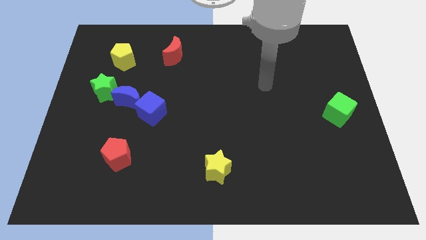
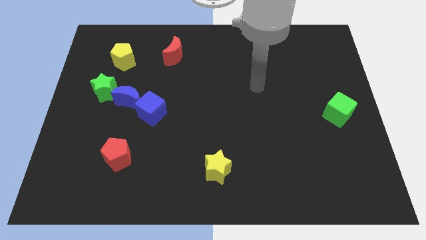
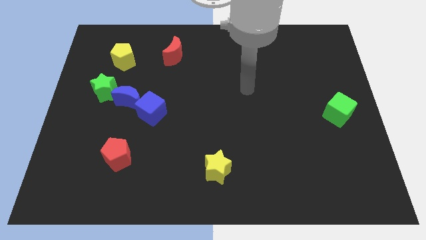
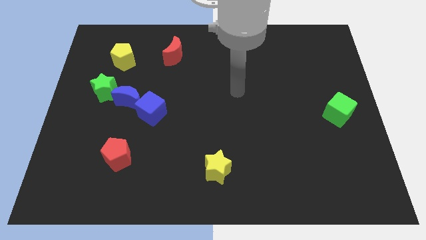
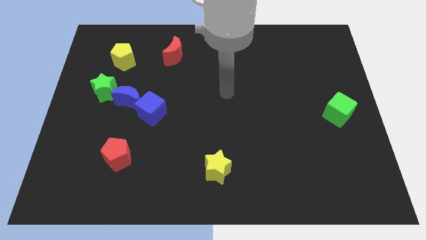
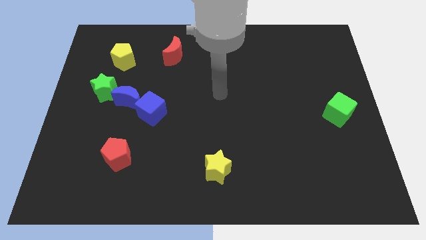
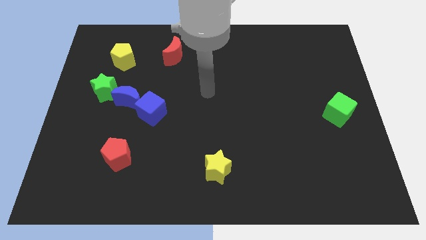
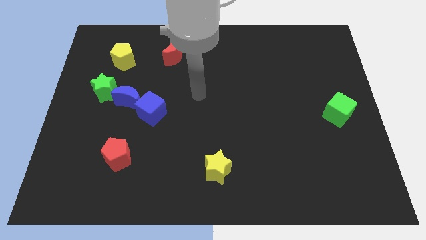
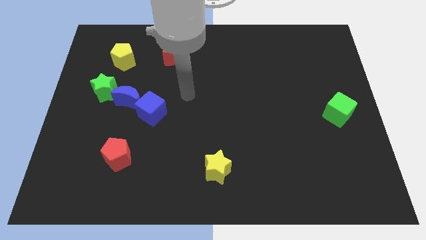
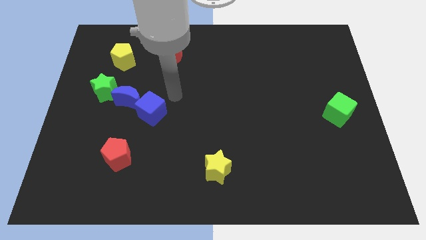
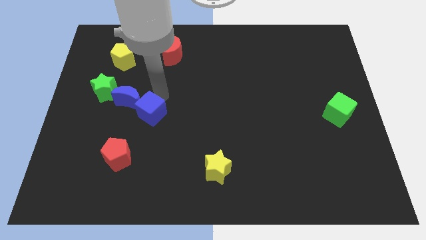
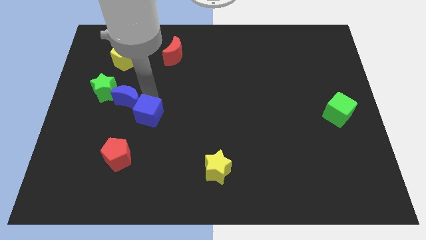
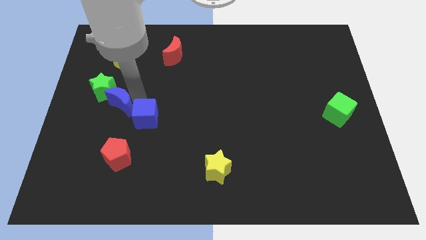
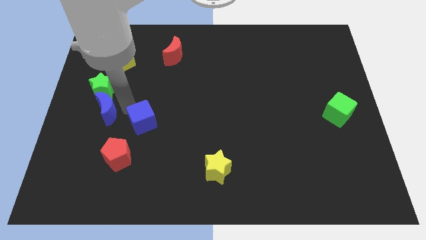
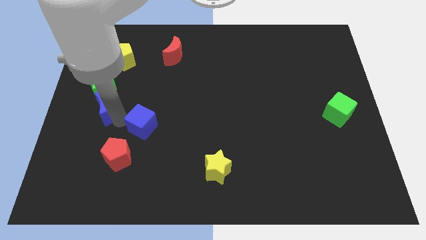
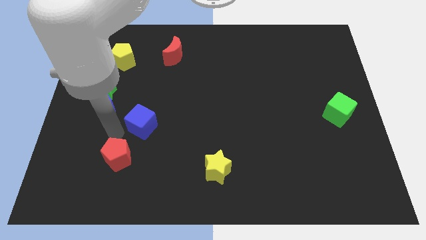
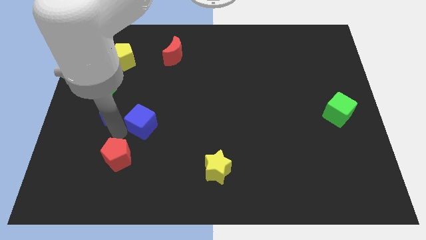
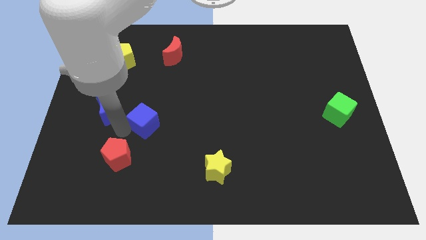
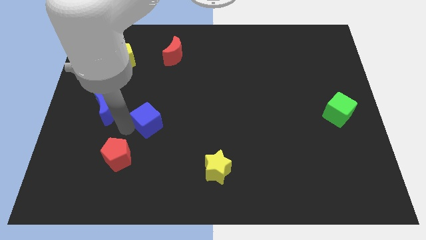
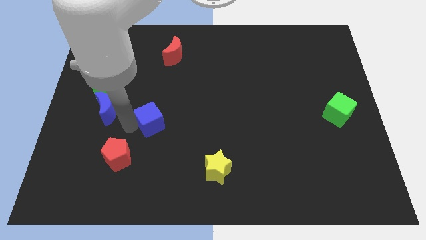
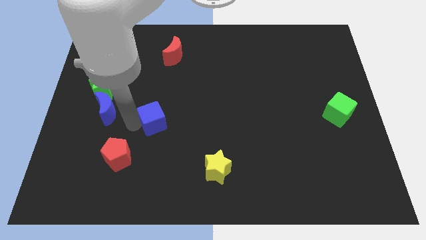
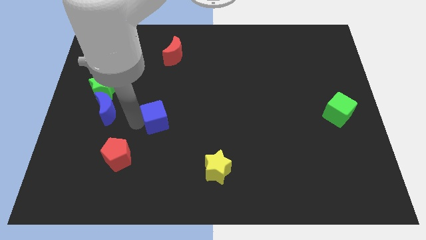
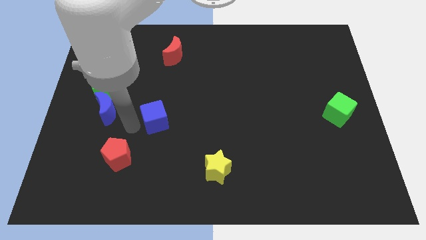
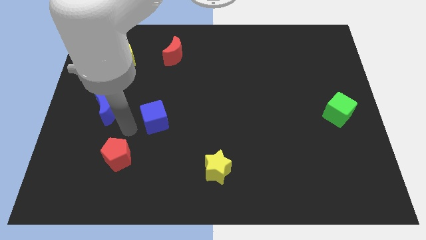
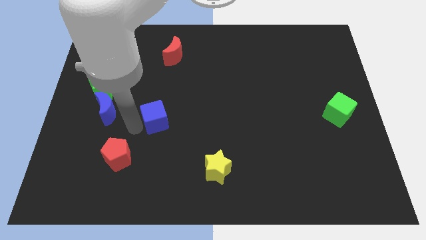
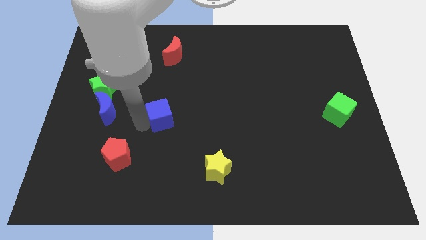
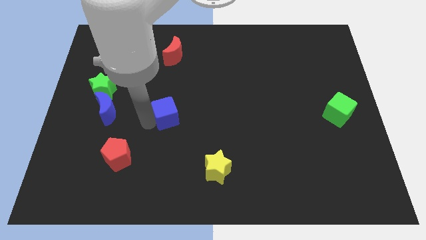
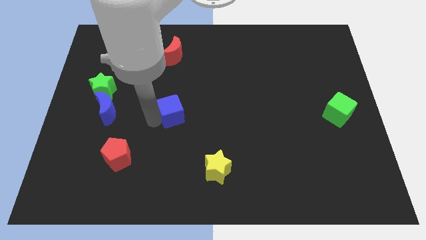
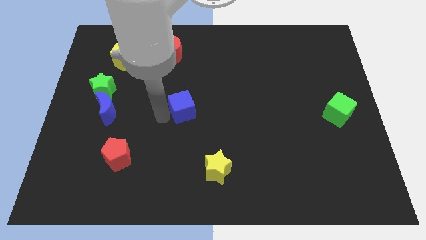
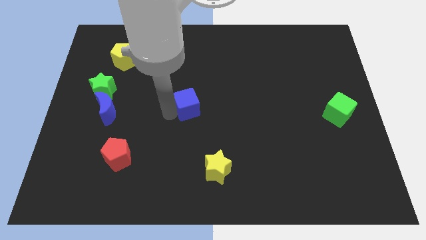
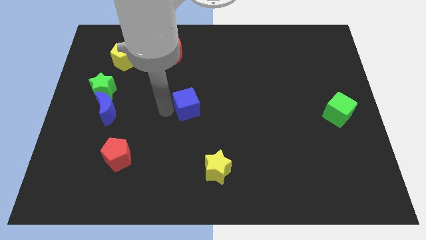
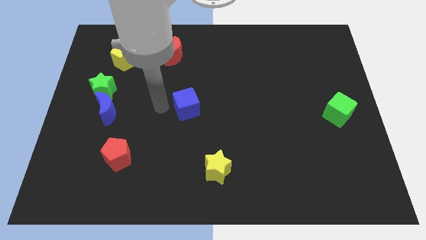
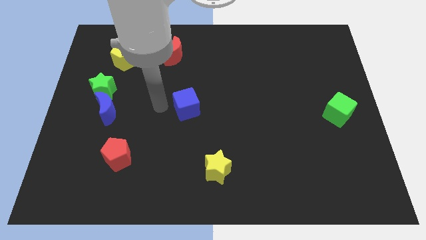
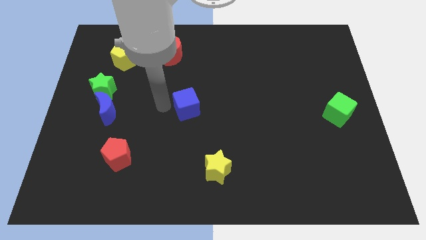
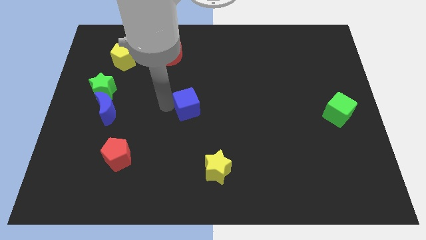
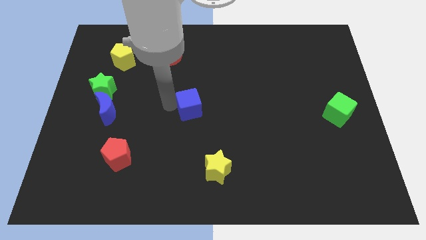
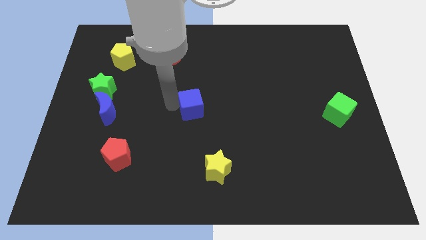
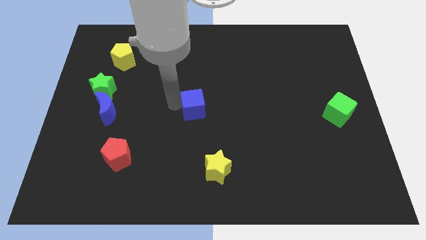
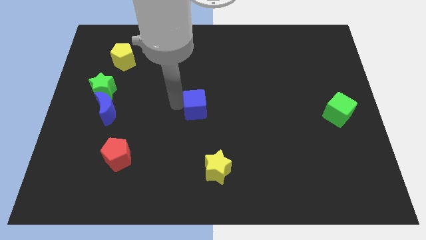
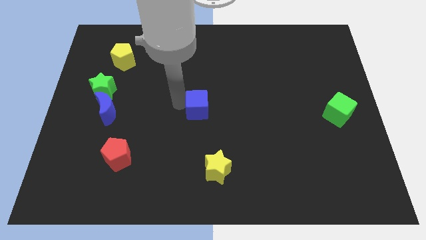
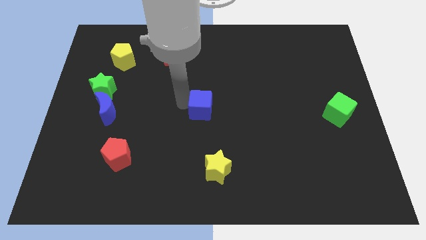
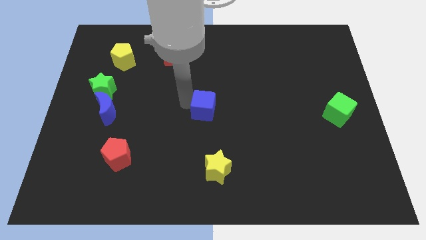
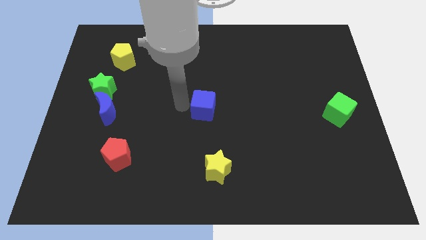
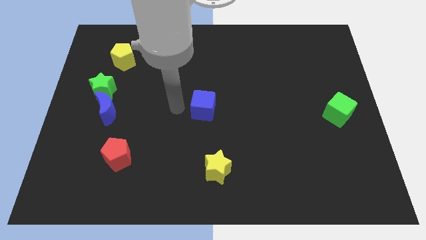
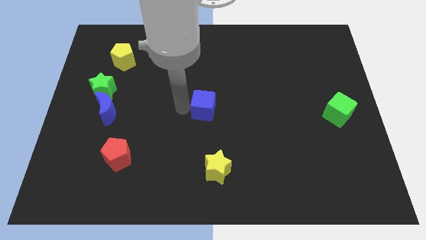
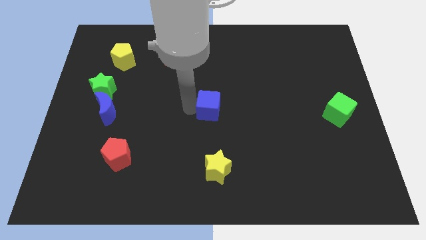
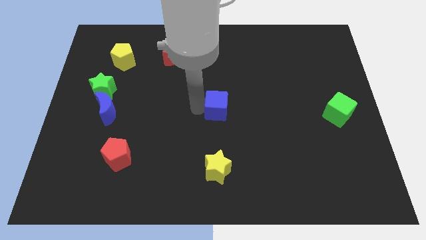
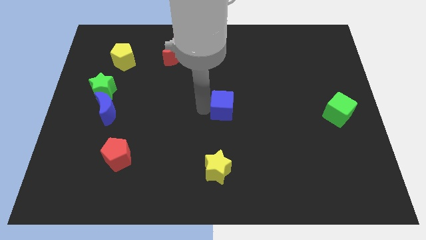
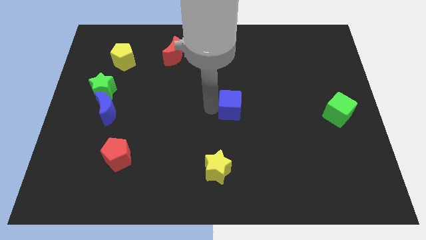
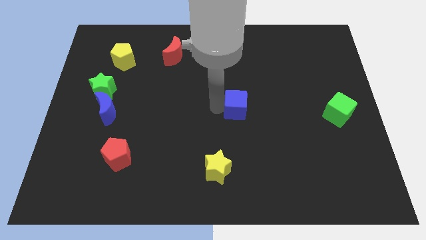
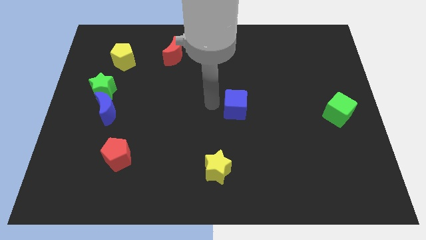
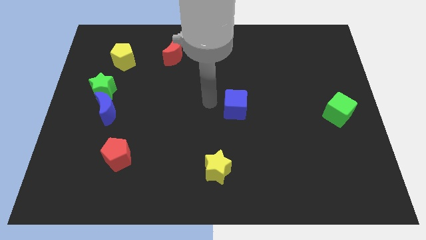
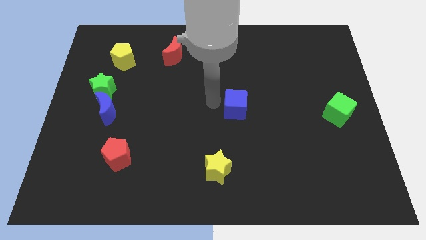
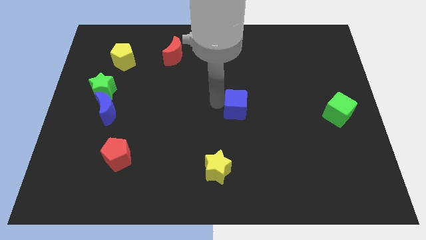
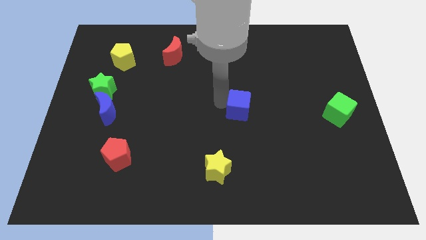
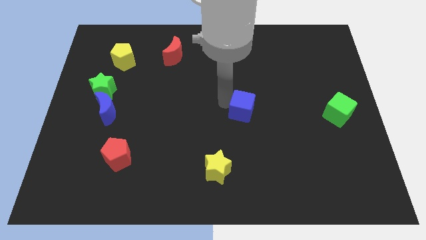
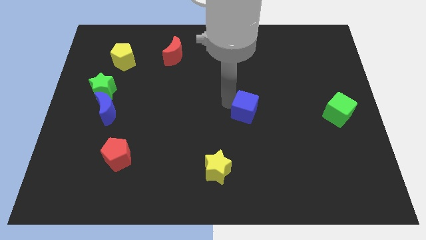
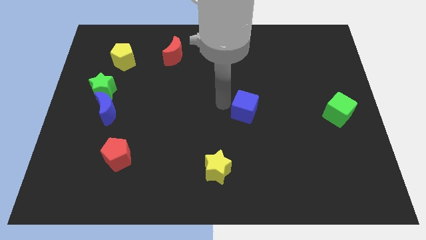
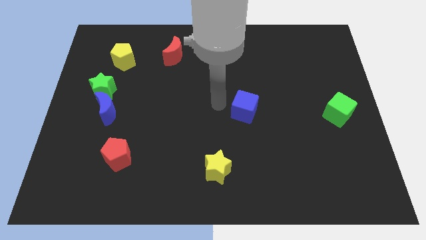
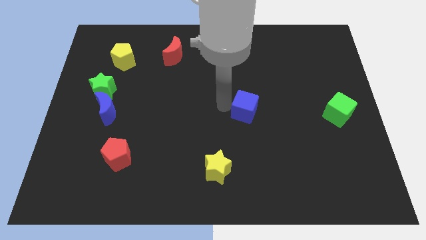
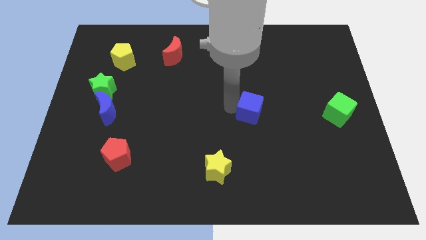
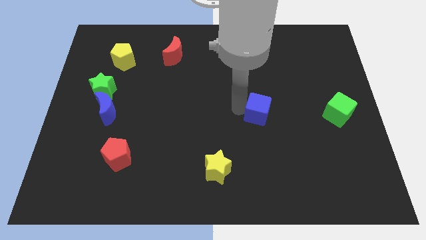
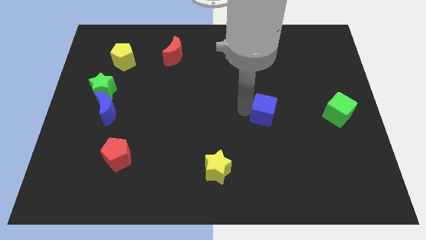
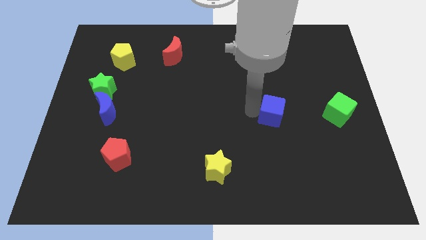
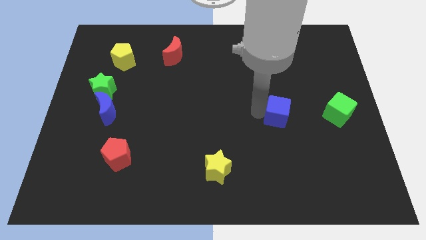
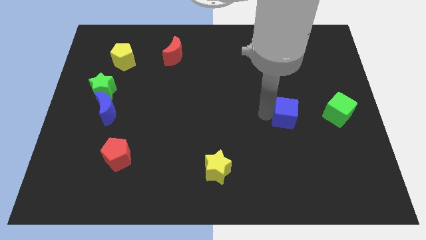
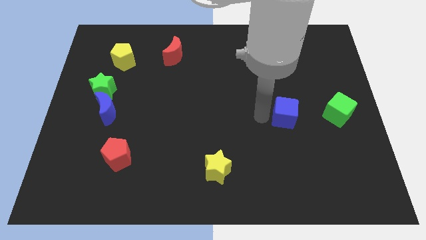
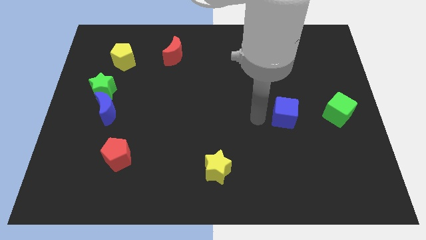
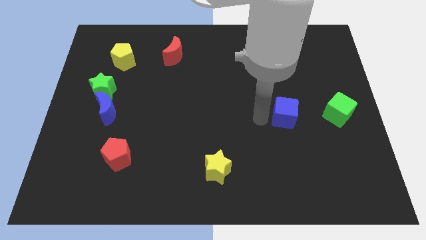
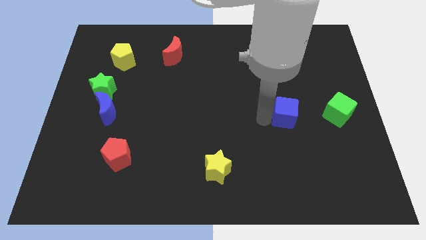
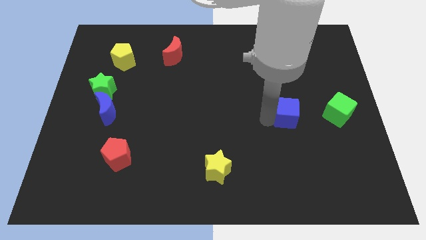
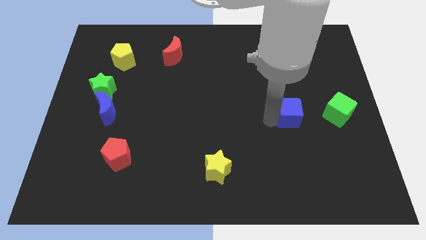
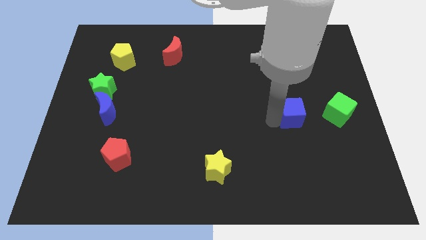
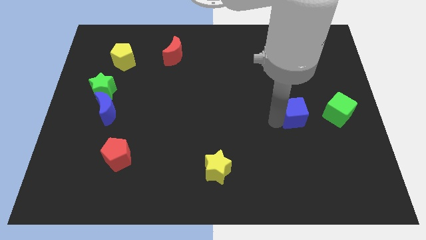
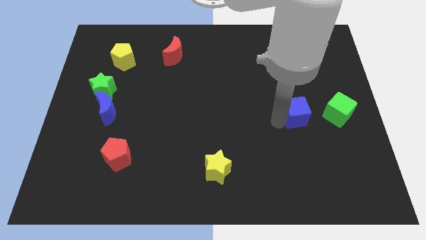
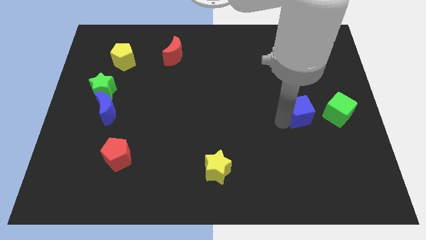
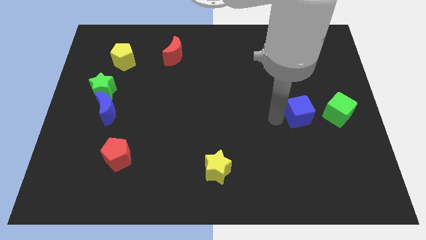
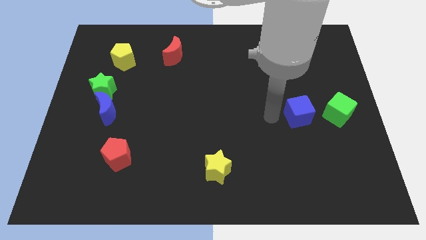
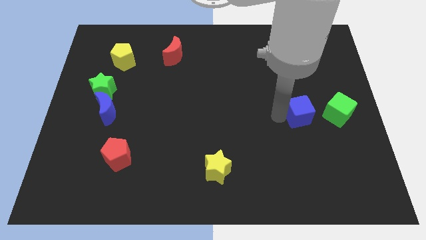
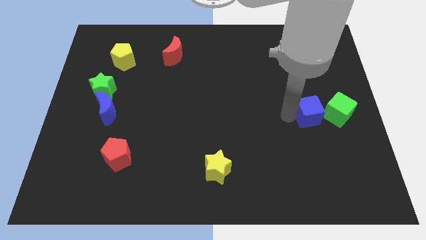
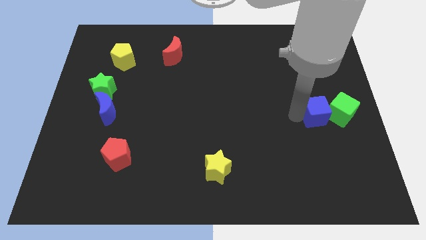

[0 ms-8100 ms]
push the blue cube to the green cube
